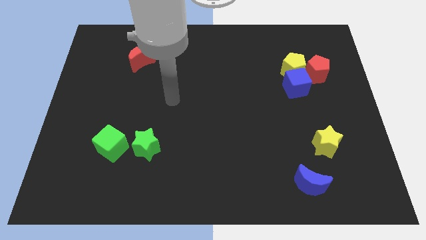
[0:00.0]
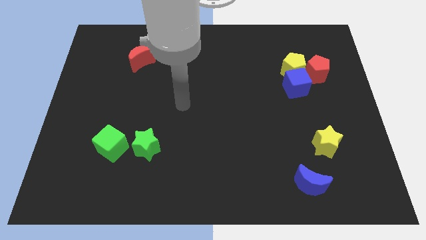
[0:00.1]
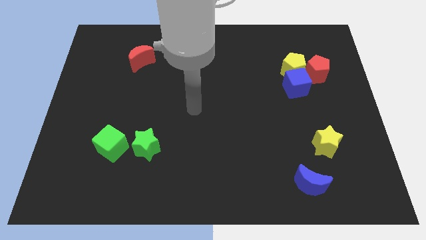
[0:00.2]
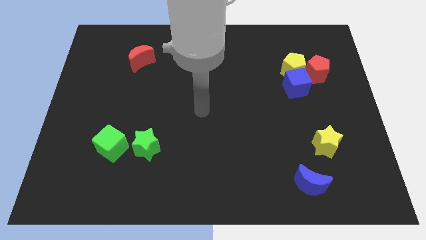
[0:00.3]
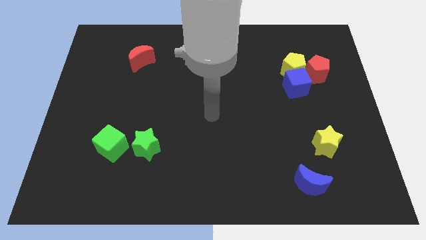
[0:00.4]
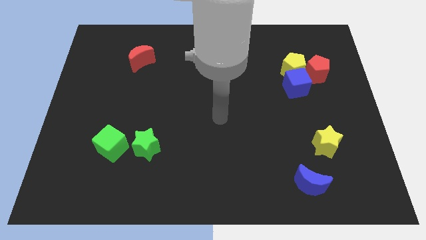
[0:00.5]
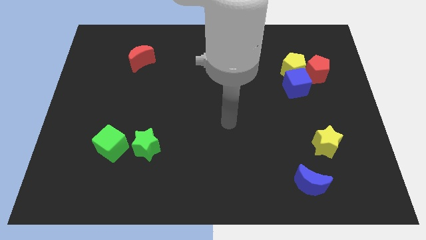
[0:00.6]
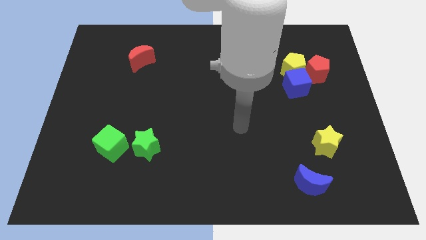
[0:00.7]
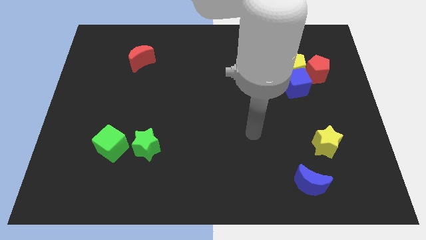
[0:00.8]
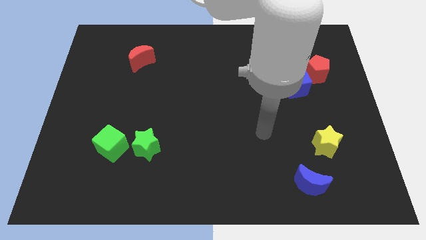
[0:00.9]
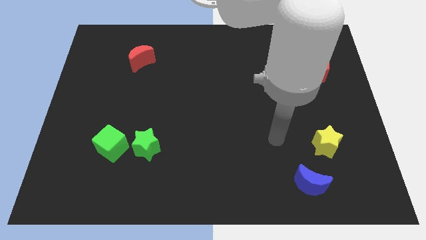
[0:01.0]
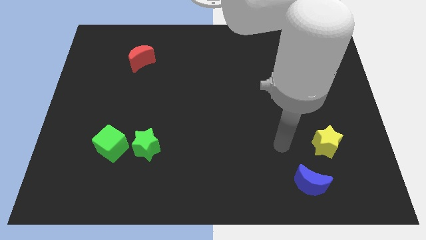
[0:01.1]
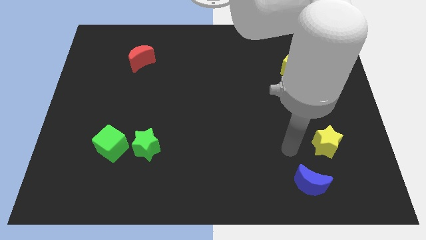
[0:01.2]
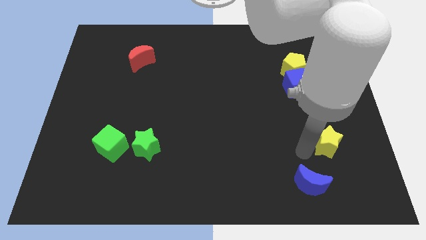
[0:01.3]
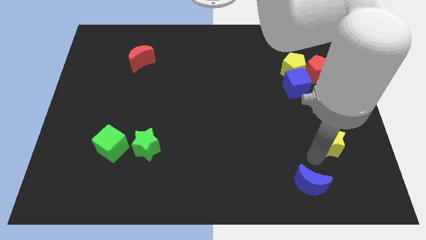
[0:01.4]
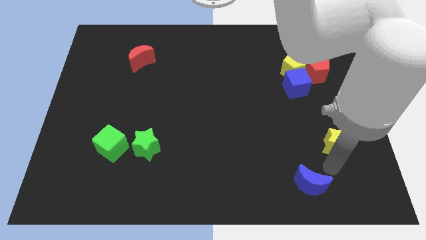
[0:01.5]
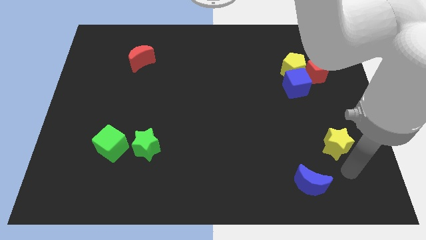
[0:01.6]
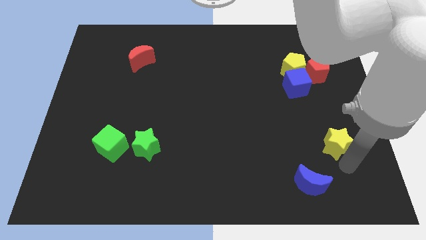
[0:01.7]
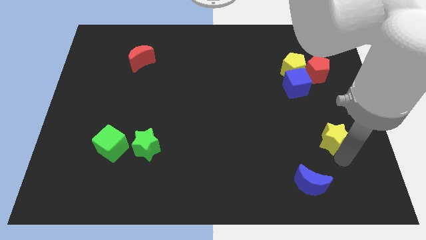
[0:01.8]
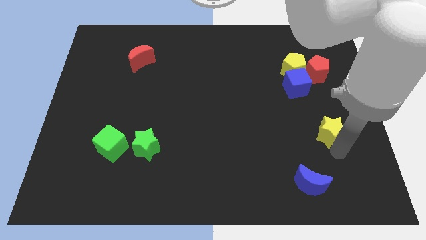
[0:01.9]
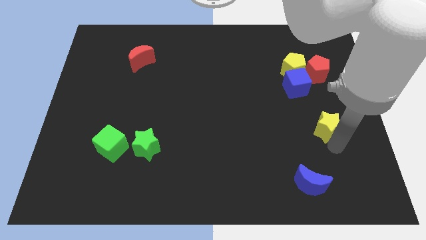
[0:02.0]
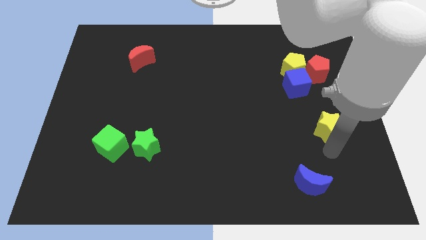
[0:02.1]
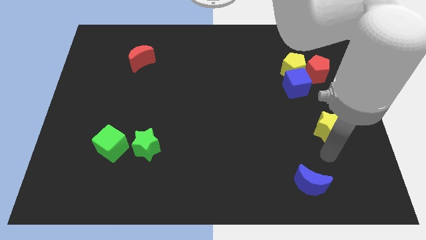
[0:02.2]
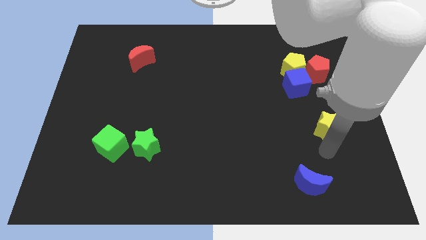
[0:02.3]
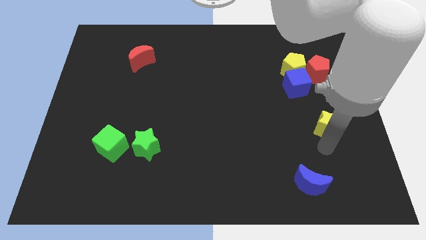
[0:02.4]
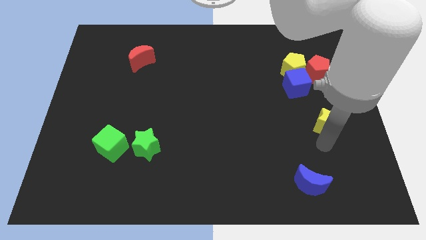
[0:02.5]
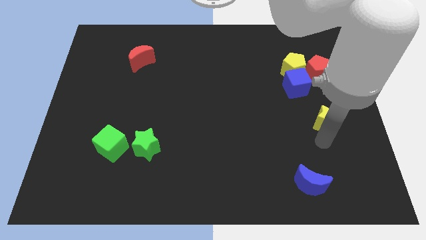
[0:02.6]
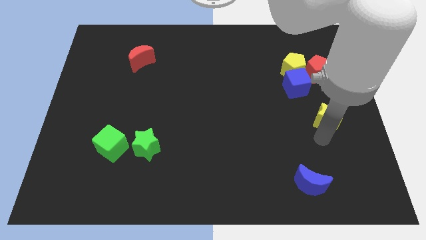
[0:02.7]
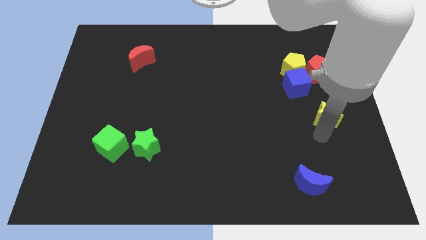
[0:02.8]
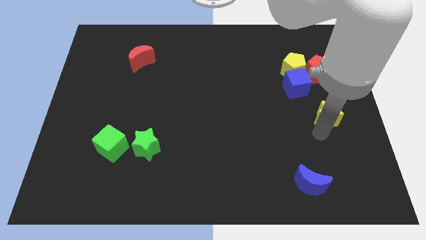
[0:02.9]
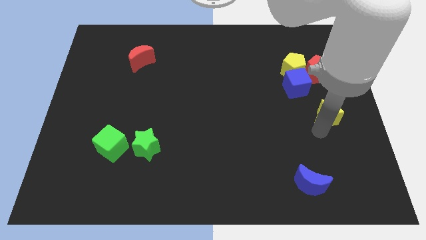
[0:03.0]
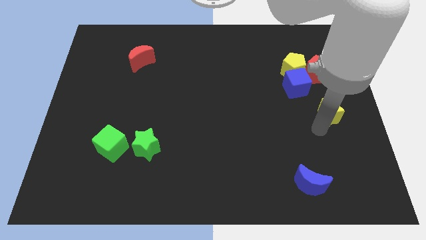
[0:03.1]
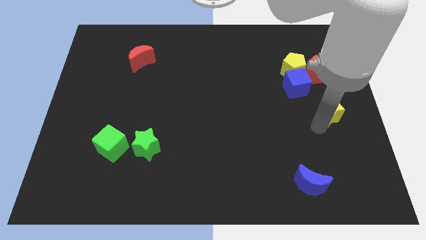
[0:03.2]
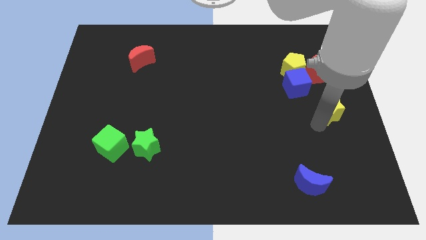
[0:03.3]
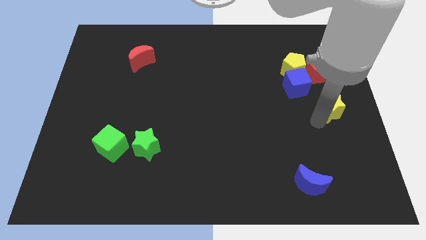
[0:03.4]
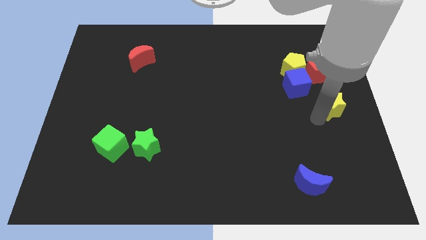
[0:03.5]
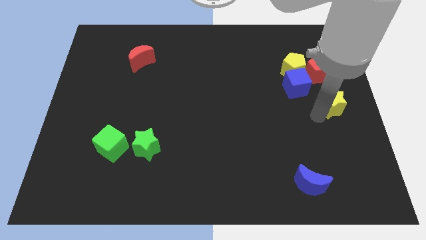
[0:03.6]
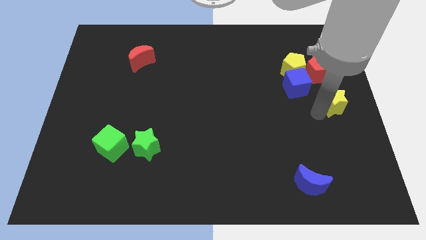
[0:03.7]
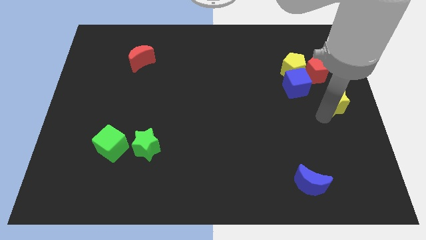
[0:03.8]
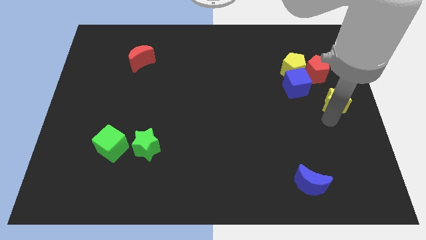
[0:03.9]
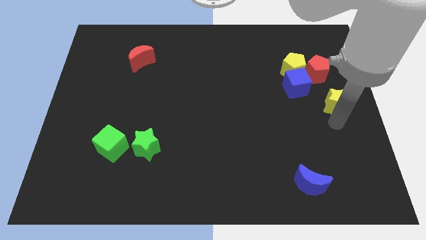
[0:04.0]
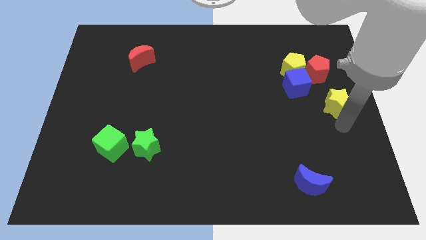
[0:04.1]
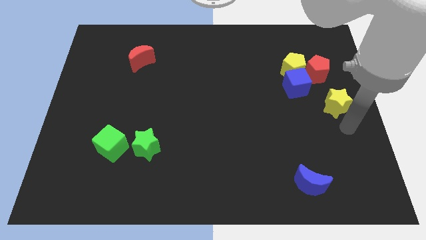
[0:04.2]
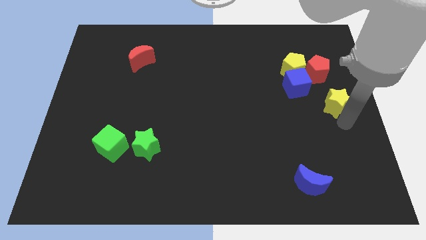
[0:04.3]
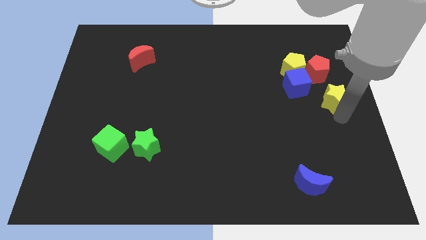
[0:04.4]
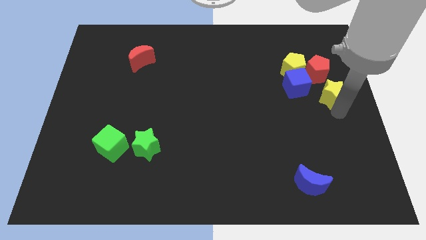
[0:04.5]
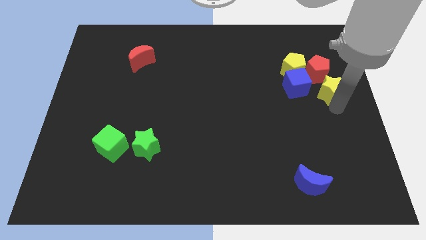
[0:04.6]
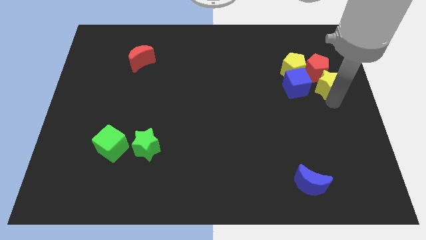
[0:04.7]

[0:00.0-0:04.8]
put the yellow star next to the red pentagon

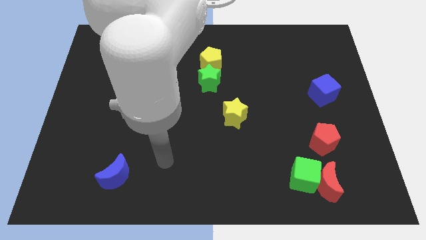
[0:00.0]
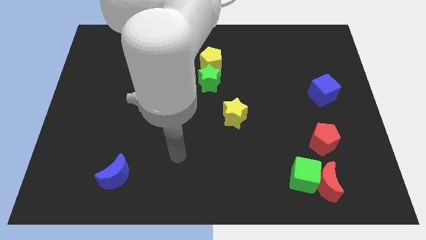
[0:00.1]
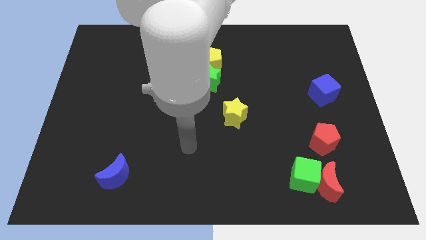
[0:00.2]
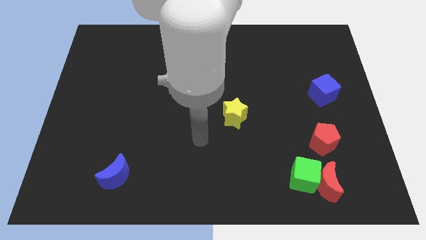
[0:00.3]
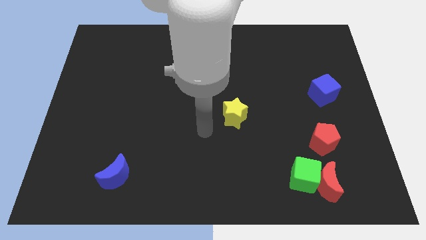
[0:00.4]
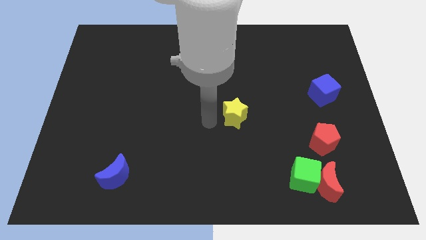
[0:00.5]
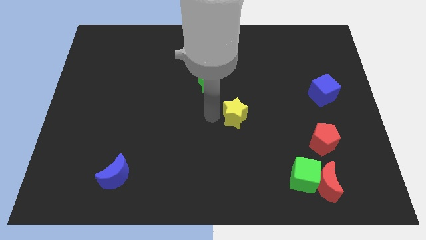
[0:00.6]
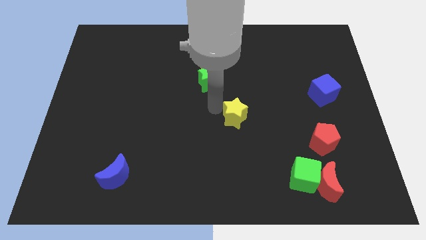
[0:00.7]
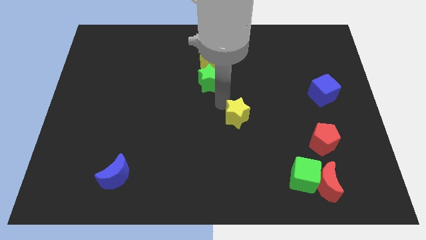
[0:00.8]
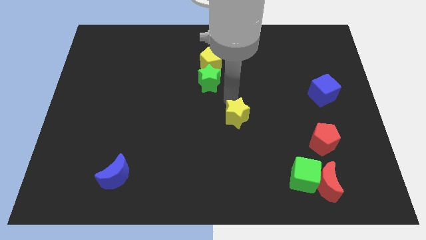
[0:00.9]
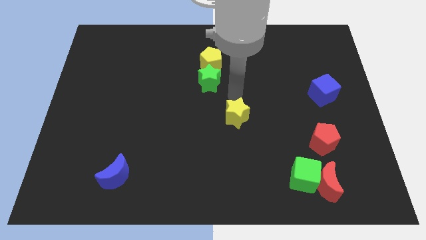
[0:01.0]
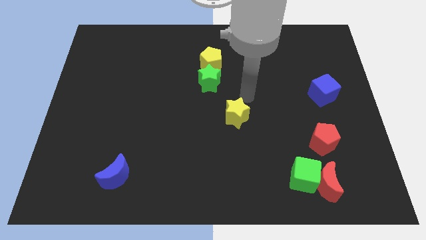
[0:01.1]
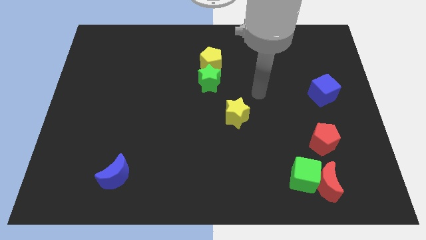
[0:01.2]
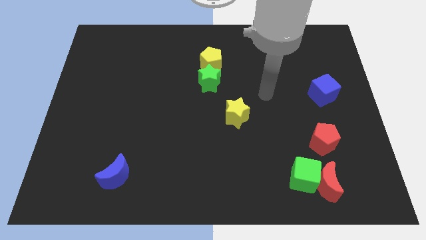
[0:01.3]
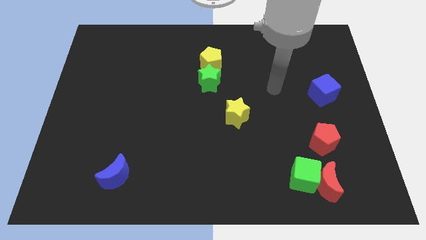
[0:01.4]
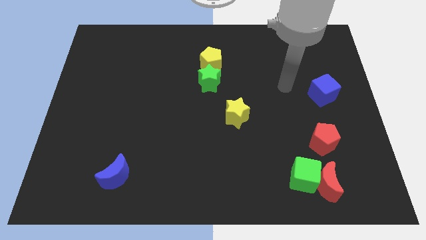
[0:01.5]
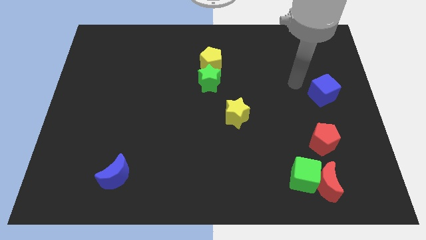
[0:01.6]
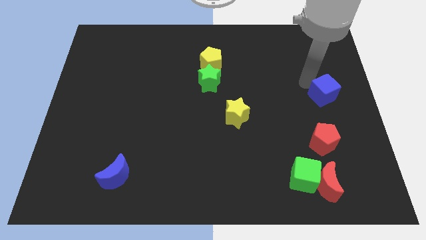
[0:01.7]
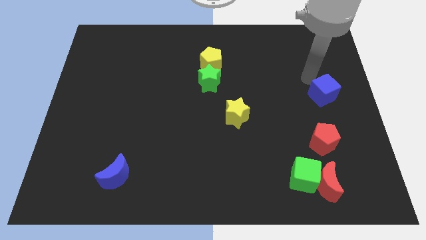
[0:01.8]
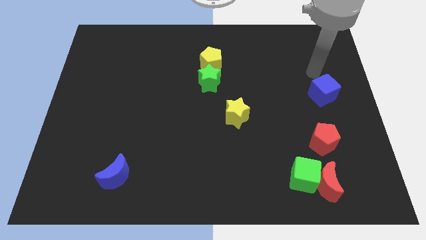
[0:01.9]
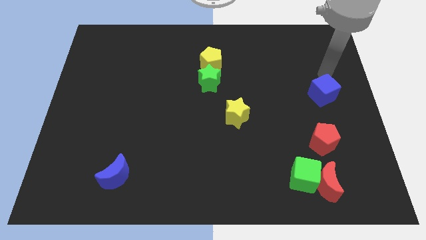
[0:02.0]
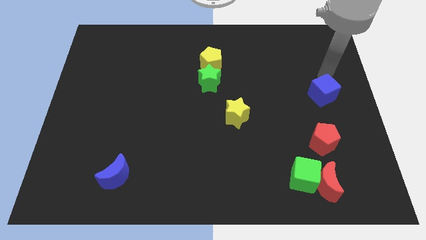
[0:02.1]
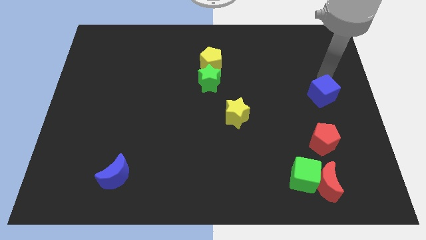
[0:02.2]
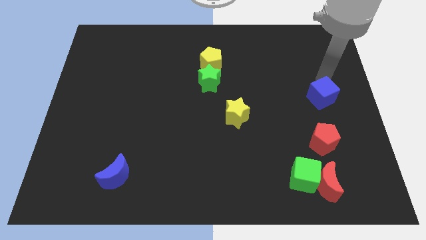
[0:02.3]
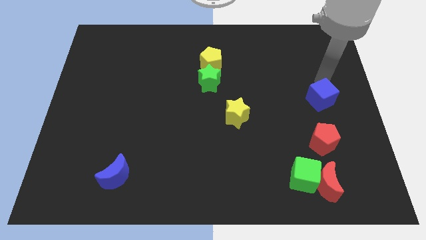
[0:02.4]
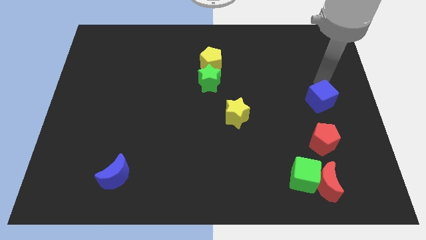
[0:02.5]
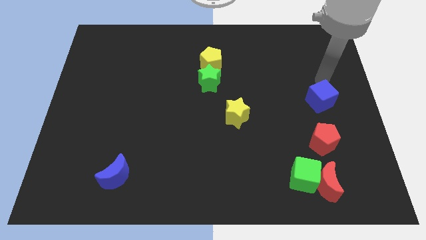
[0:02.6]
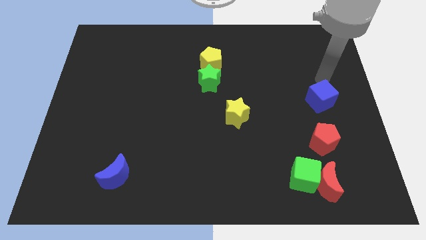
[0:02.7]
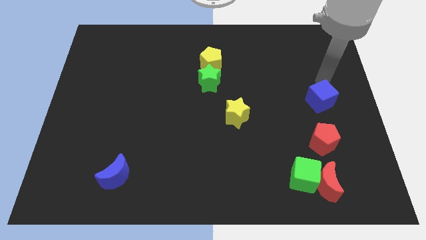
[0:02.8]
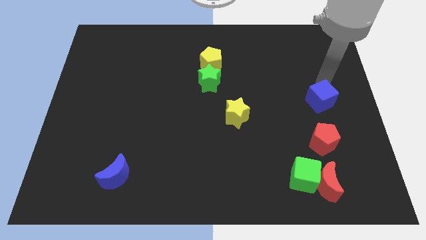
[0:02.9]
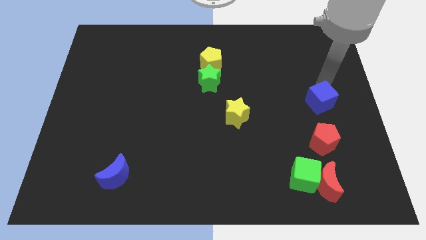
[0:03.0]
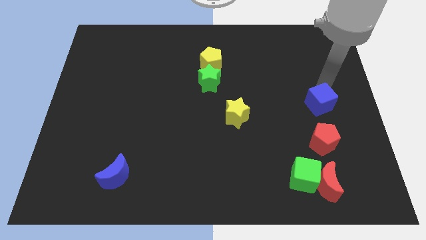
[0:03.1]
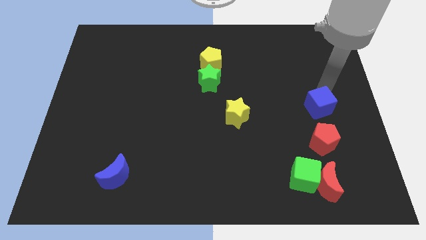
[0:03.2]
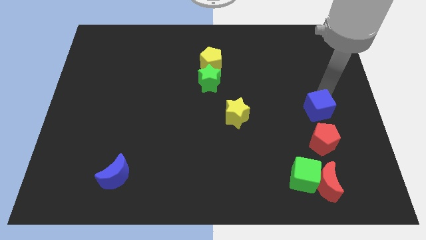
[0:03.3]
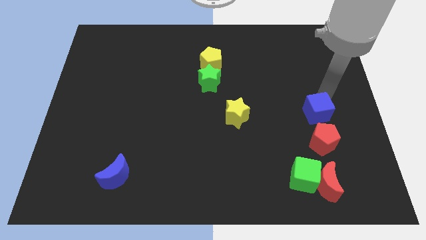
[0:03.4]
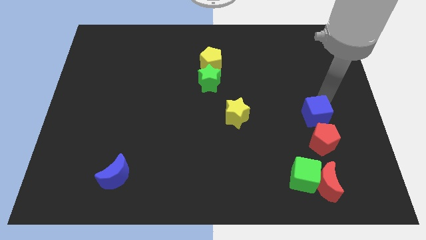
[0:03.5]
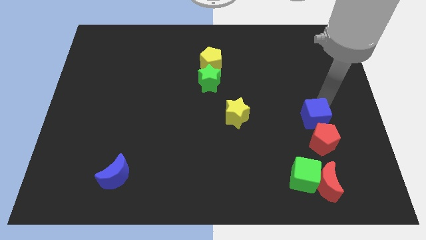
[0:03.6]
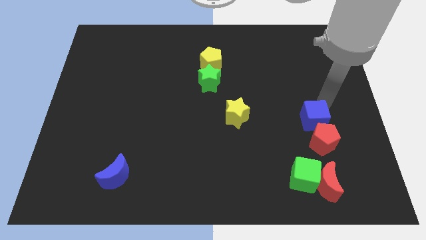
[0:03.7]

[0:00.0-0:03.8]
slide the blue cube towards the red pentagon
